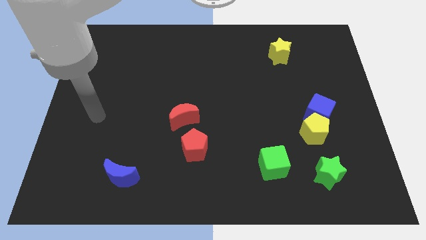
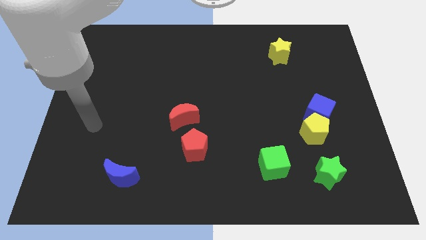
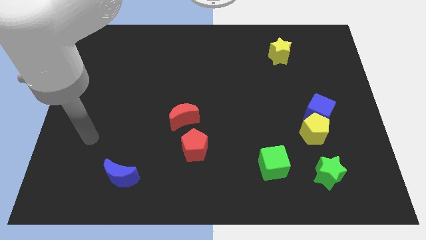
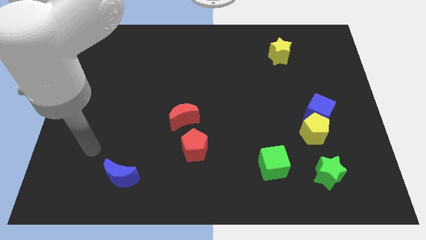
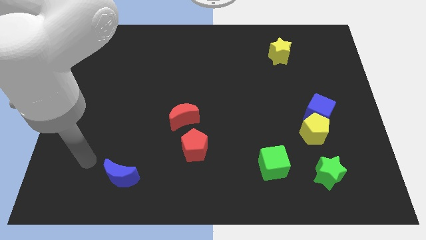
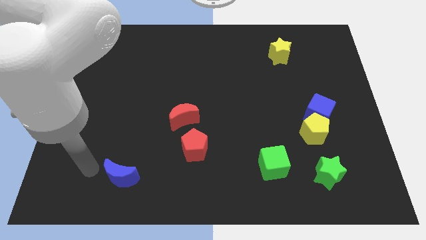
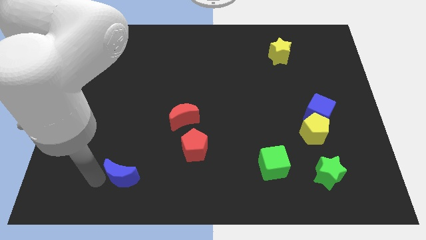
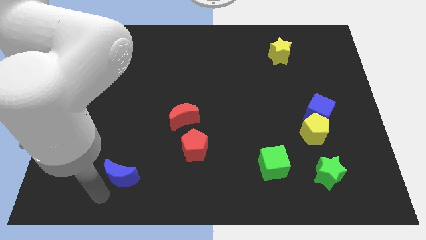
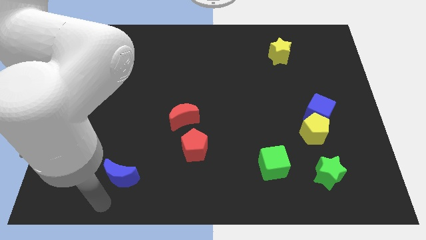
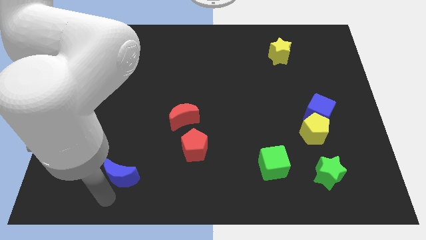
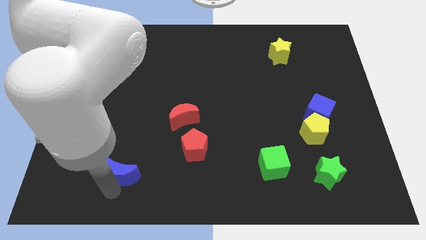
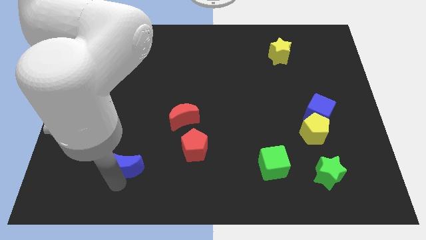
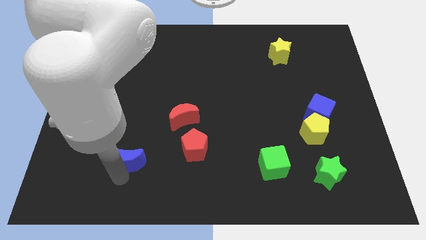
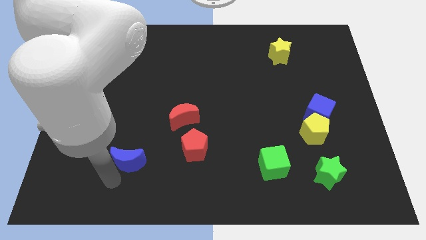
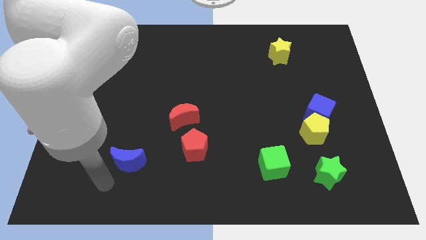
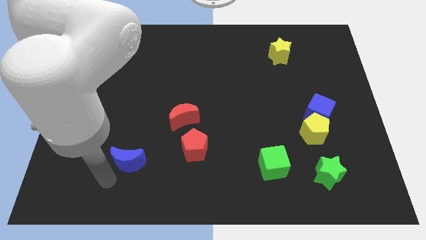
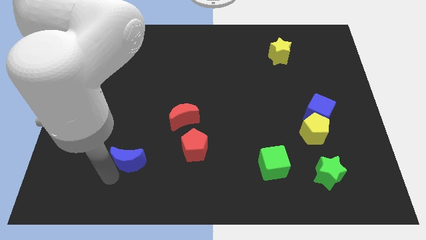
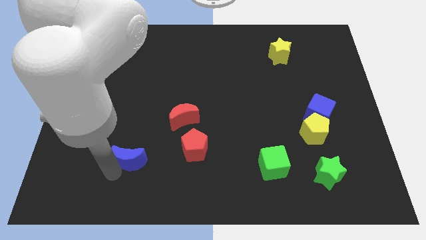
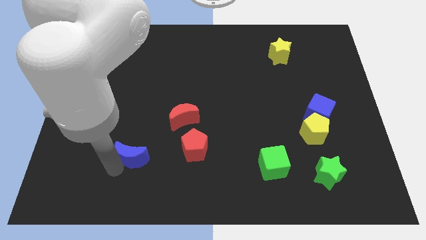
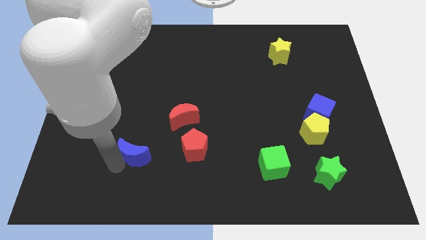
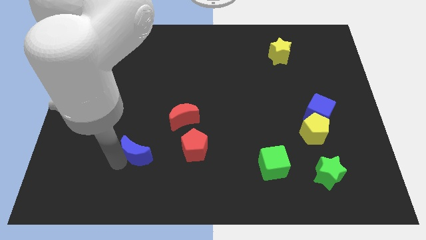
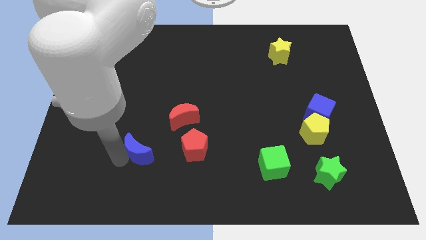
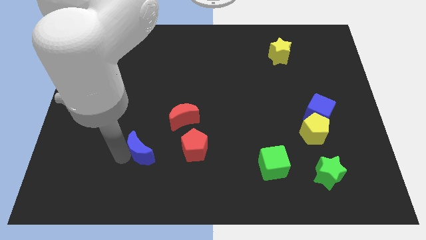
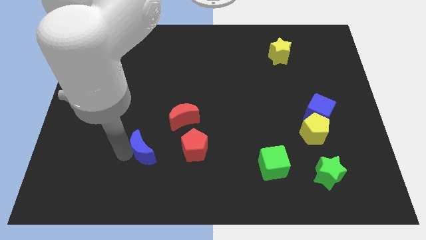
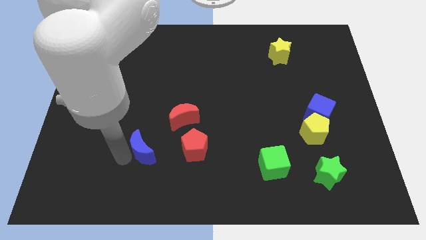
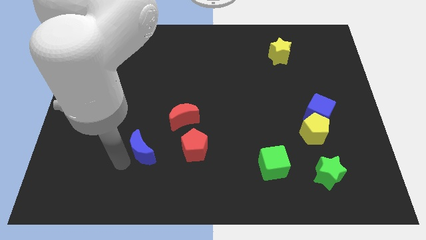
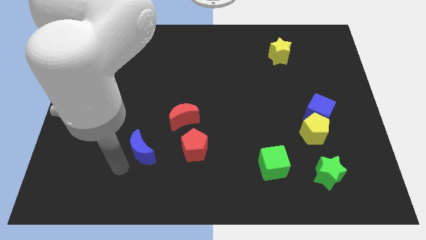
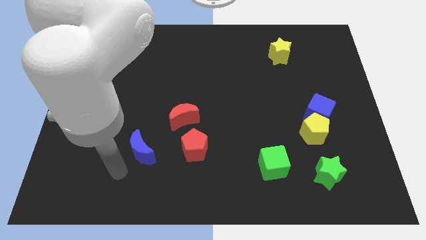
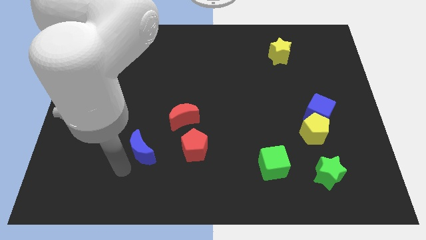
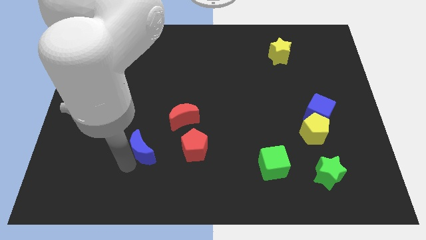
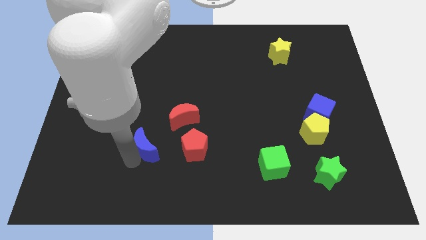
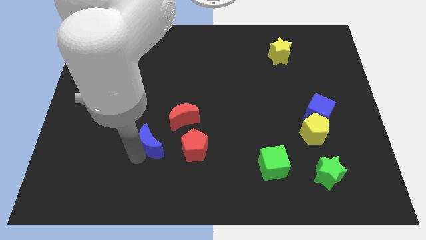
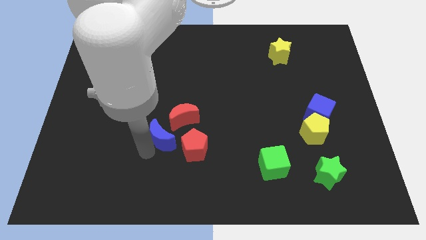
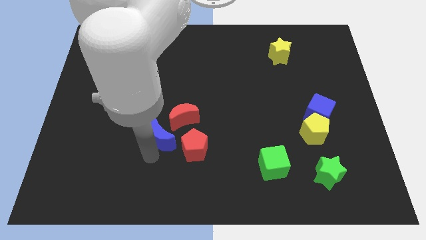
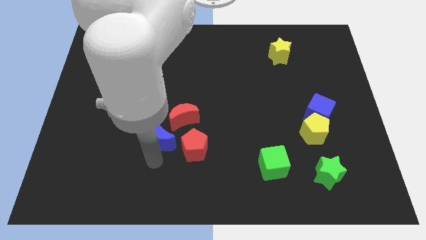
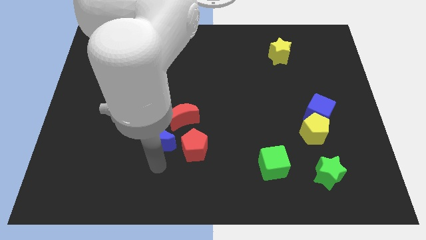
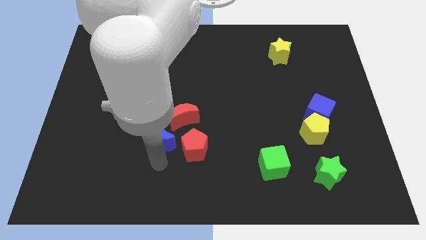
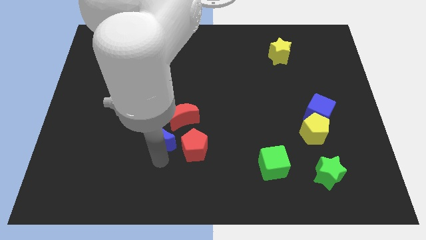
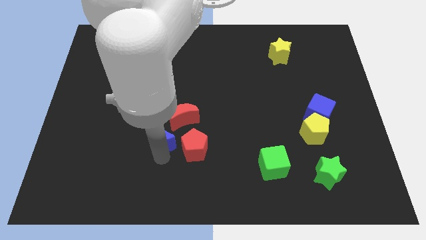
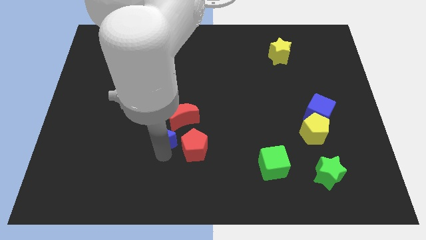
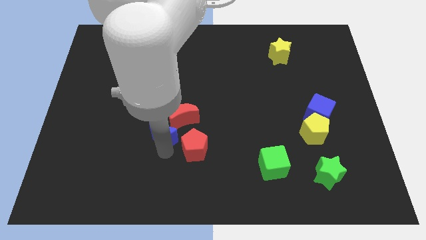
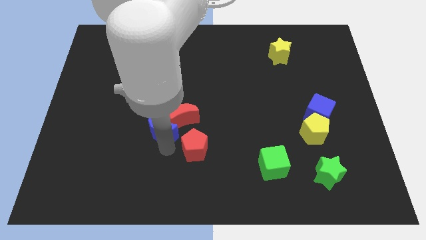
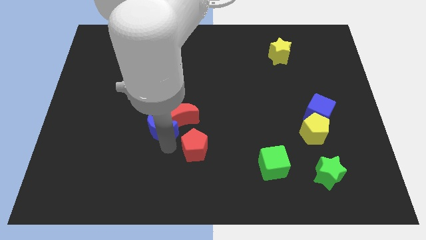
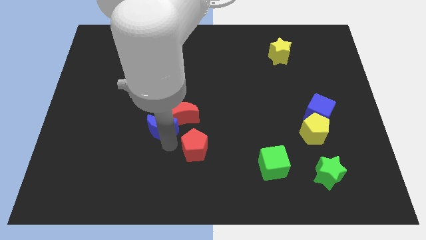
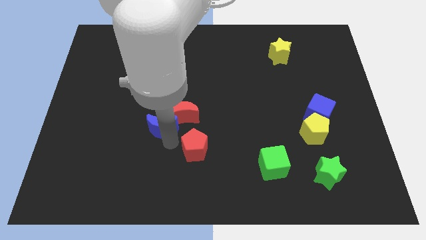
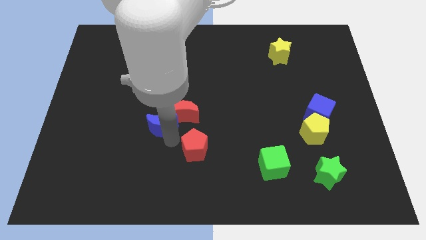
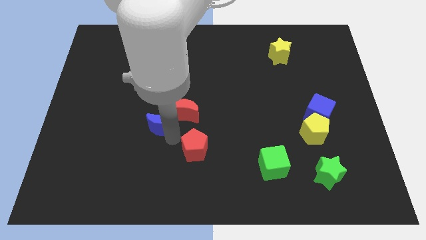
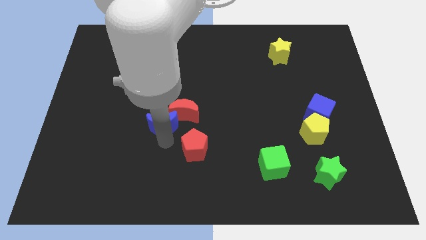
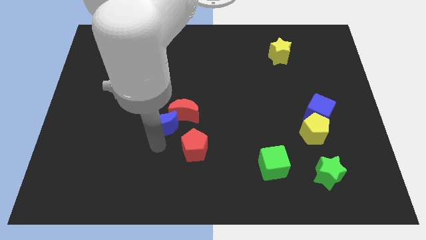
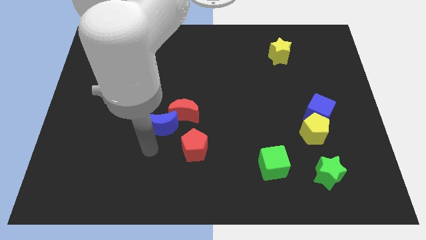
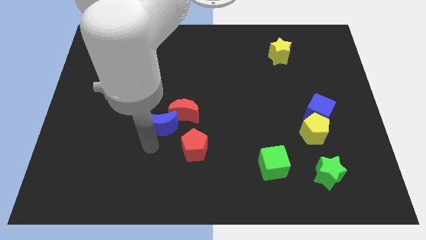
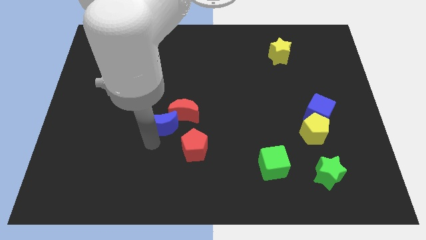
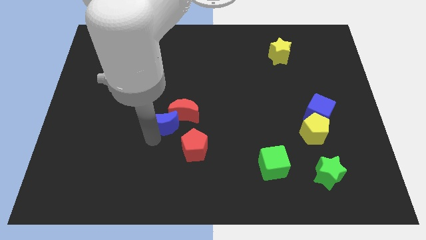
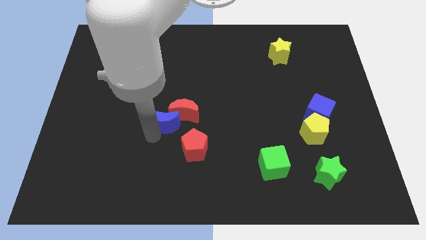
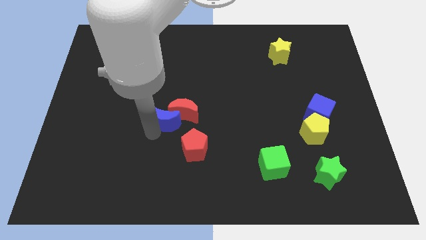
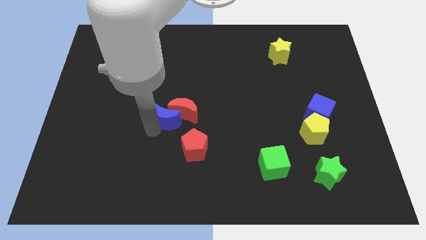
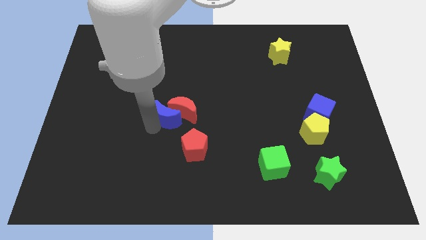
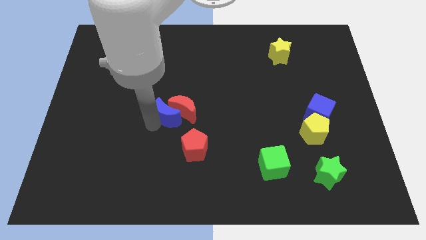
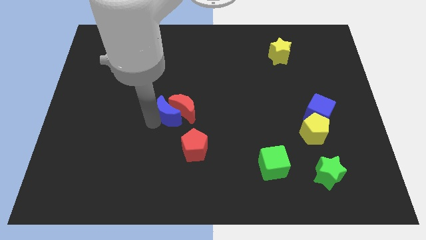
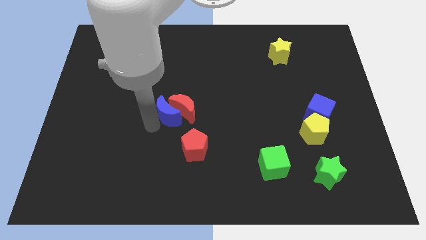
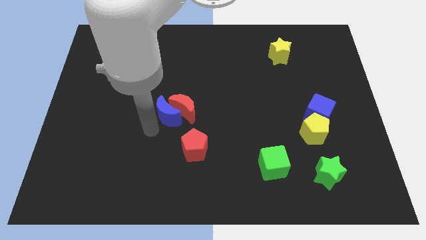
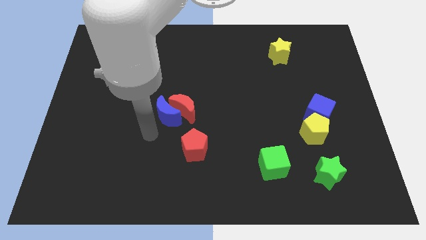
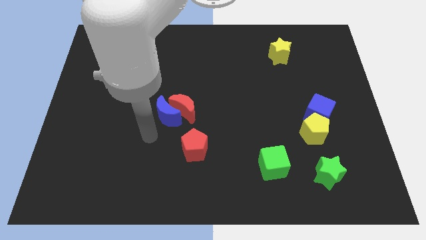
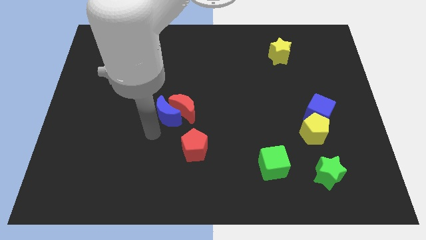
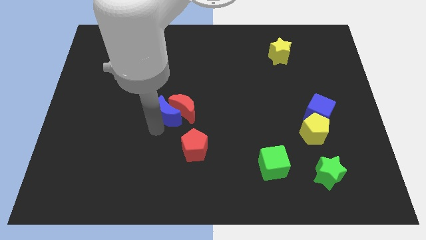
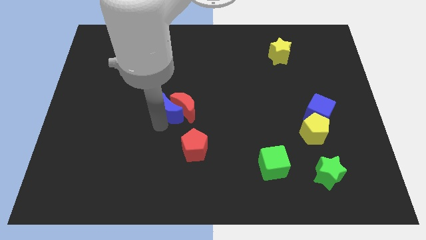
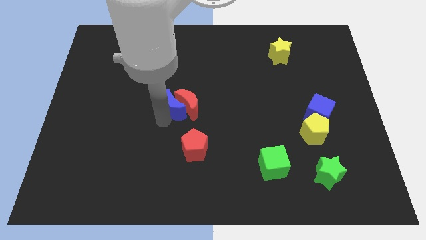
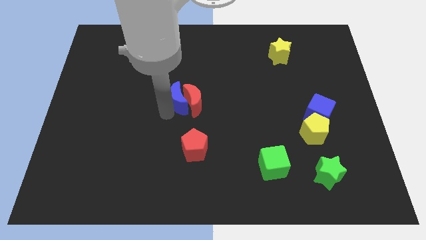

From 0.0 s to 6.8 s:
slide the blue moon upwards and right diagonally

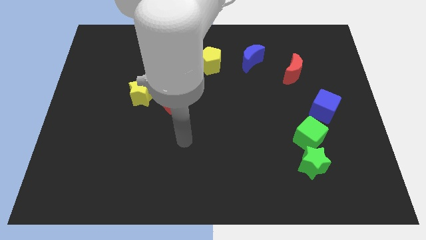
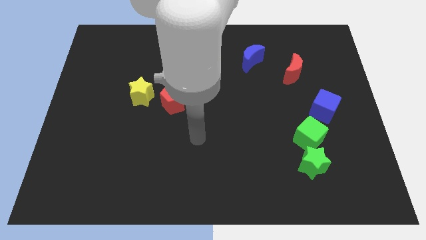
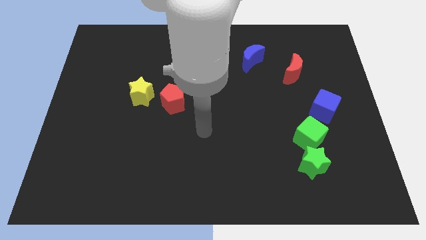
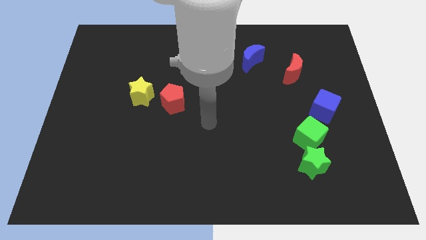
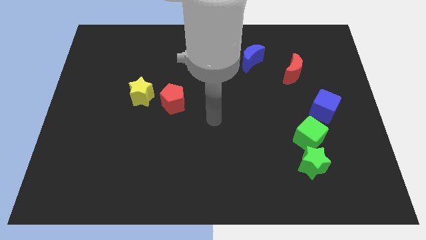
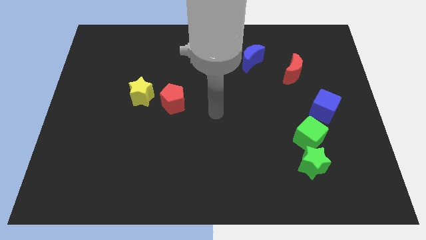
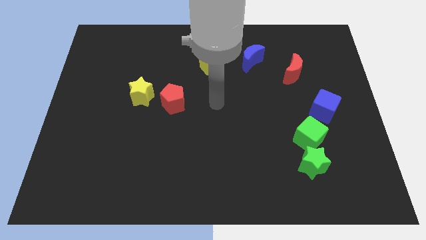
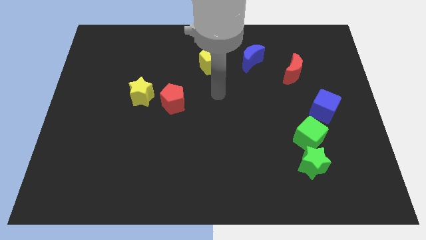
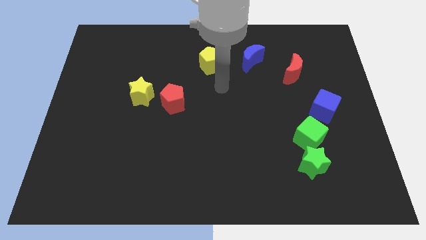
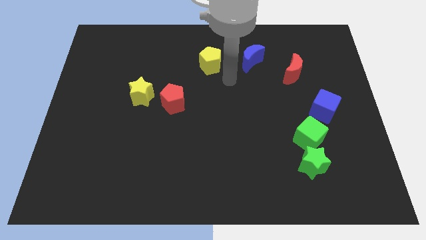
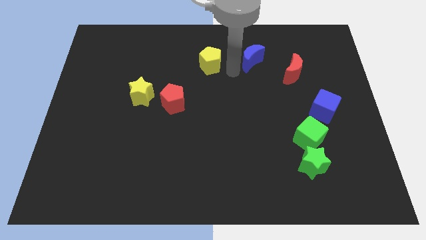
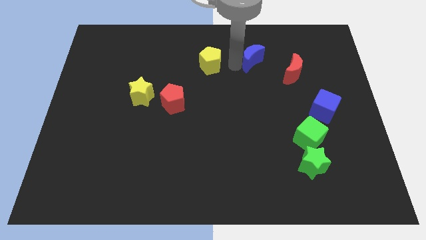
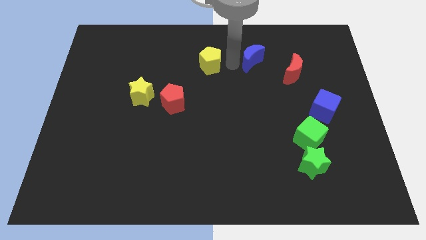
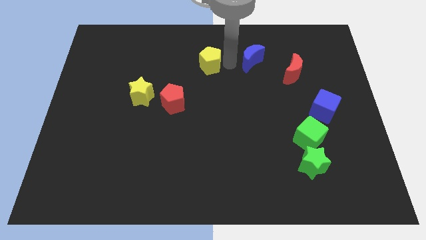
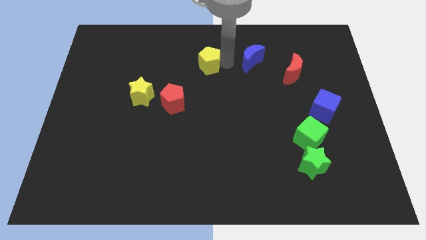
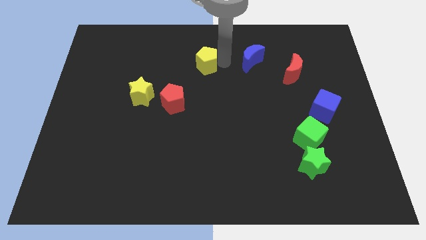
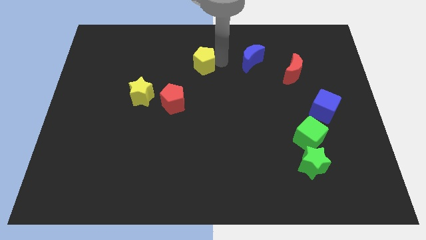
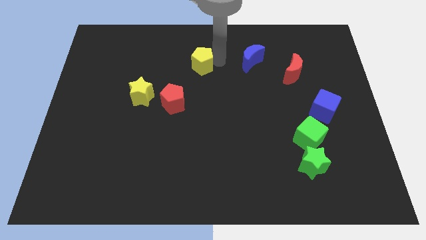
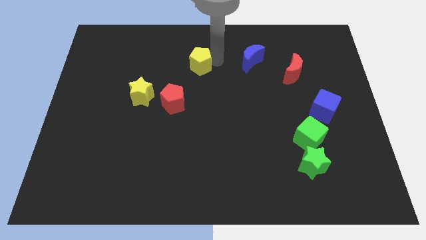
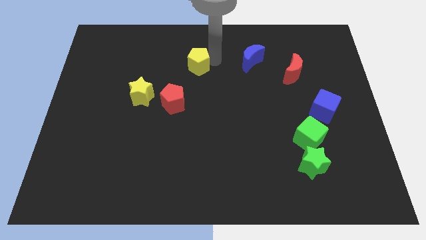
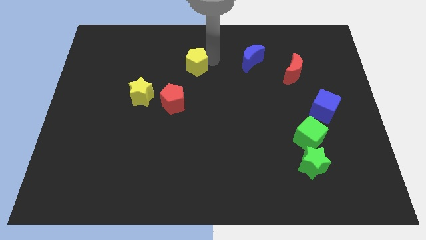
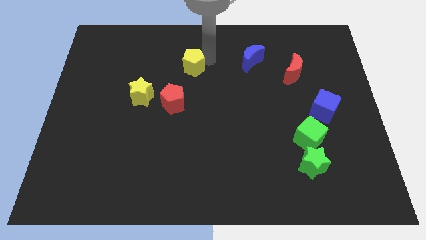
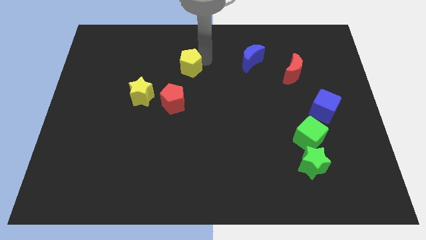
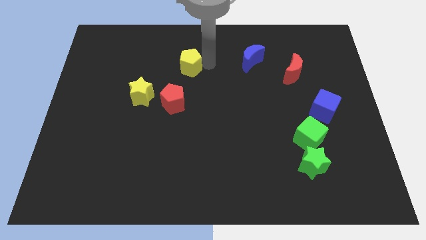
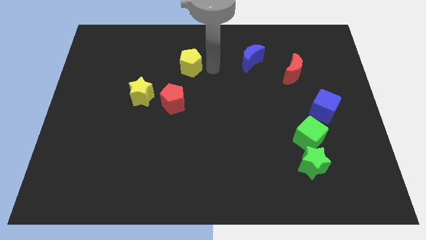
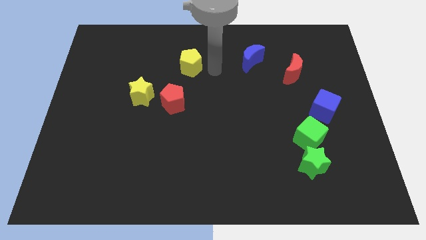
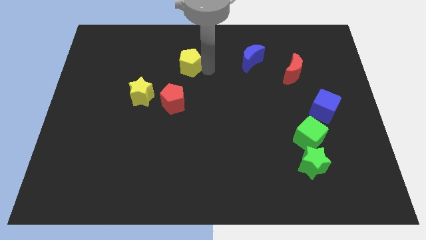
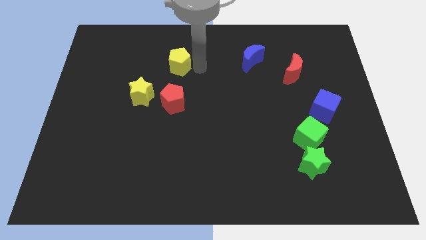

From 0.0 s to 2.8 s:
slide the yellow pentagon left a little bit
